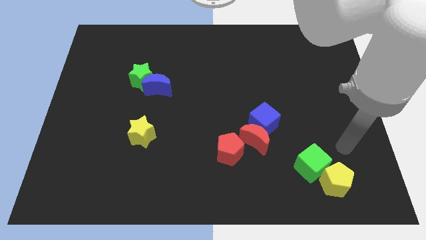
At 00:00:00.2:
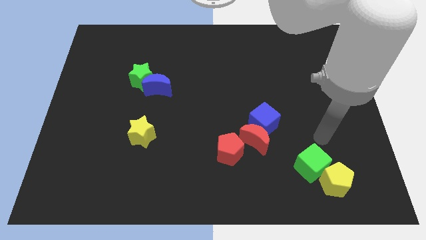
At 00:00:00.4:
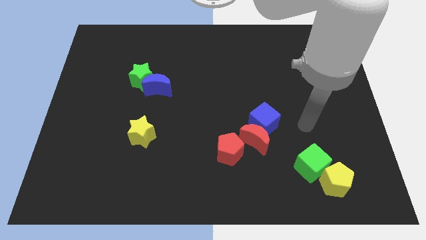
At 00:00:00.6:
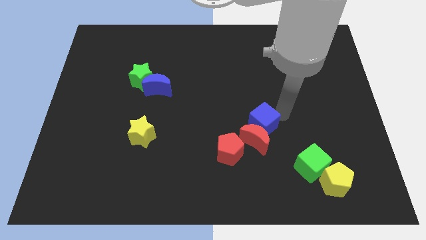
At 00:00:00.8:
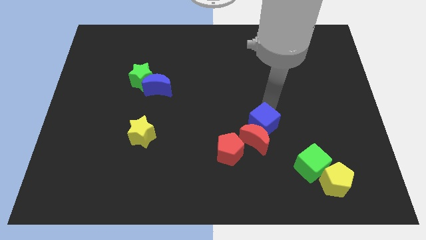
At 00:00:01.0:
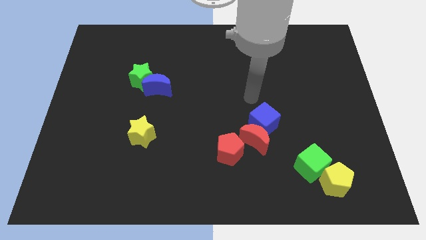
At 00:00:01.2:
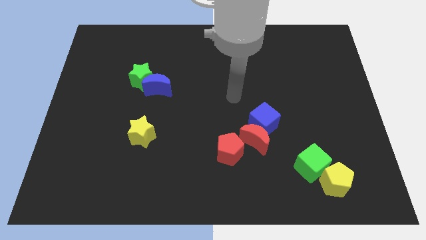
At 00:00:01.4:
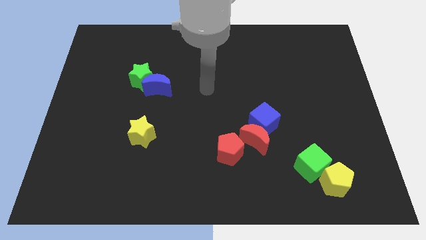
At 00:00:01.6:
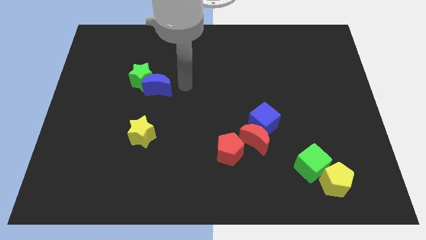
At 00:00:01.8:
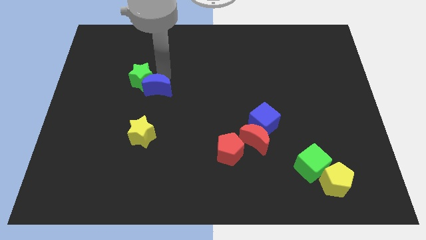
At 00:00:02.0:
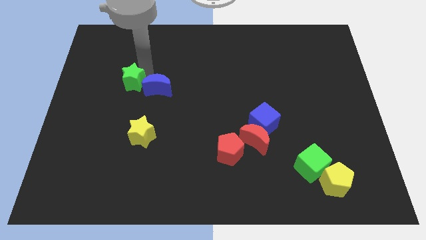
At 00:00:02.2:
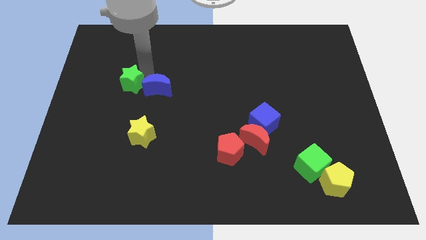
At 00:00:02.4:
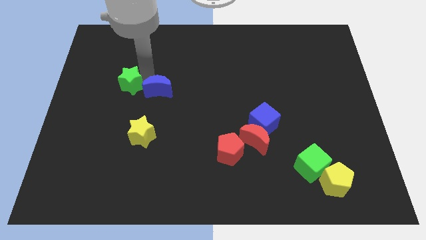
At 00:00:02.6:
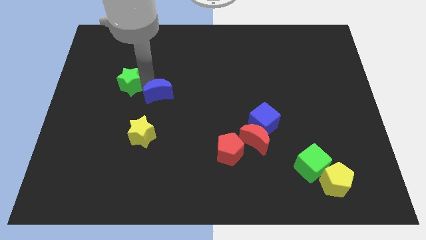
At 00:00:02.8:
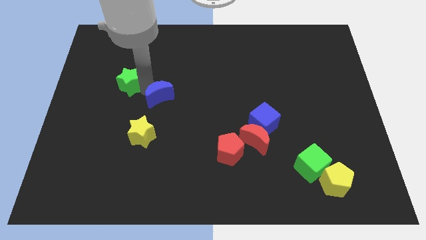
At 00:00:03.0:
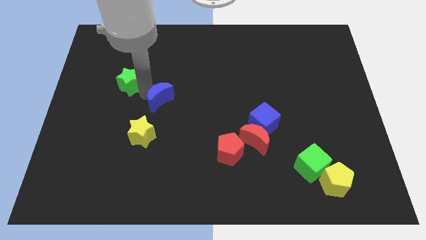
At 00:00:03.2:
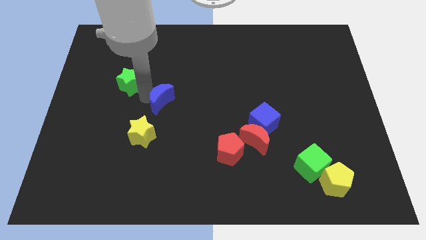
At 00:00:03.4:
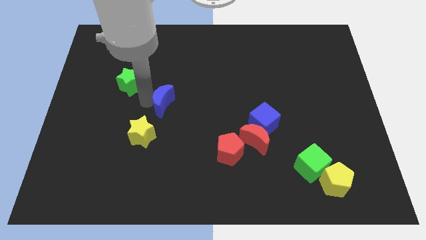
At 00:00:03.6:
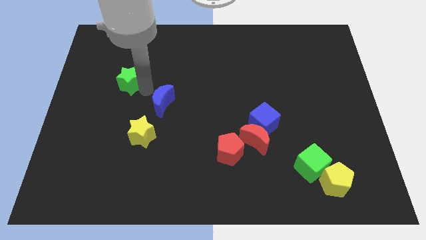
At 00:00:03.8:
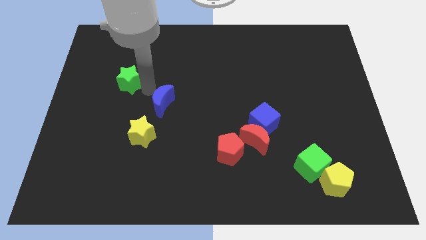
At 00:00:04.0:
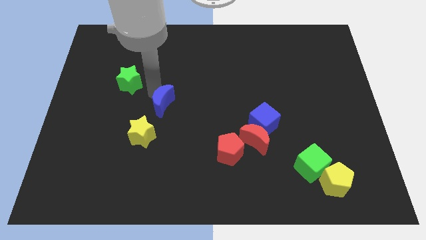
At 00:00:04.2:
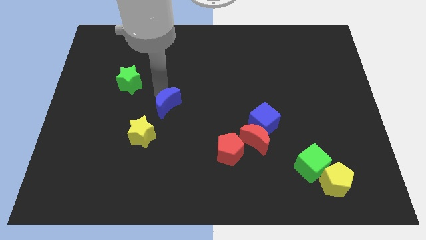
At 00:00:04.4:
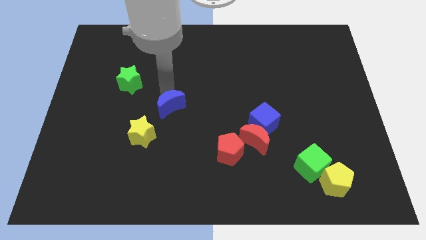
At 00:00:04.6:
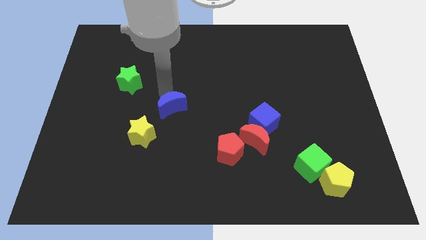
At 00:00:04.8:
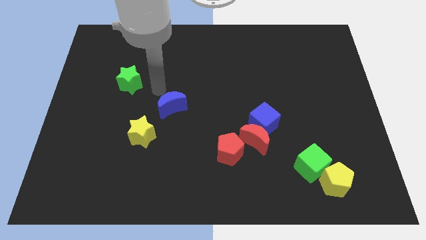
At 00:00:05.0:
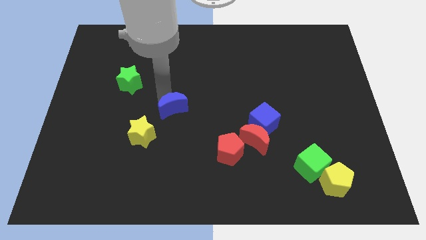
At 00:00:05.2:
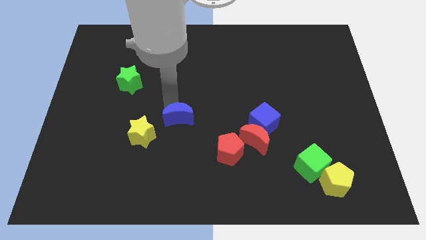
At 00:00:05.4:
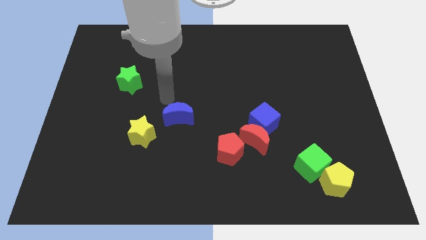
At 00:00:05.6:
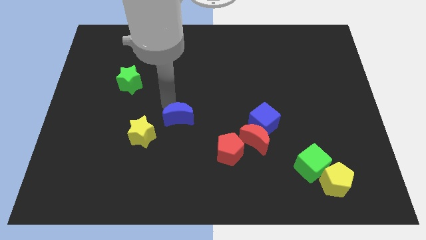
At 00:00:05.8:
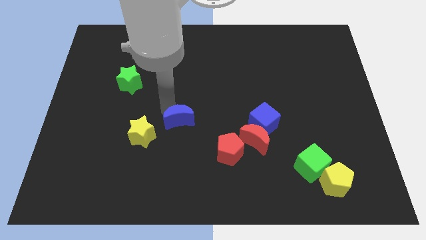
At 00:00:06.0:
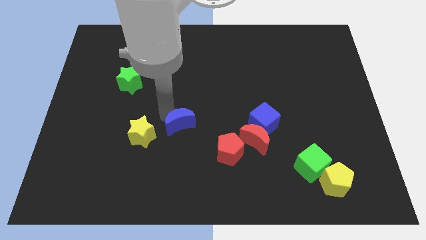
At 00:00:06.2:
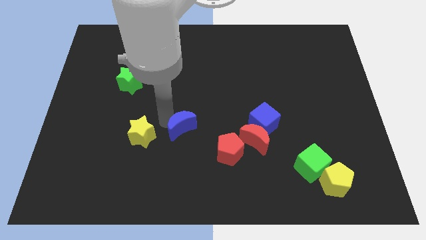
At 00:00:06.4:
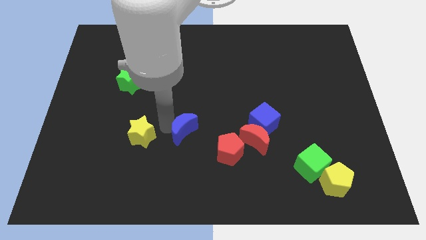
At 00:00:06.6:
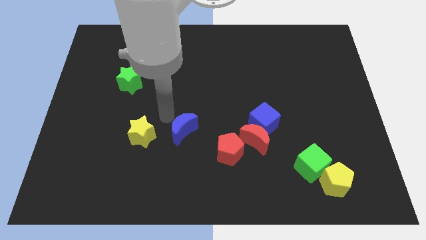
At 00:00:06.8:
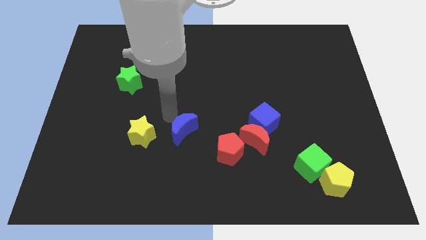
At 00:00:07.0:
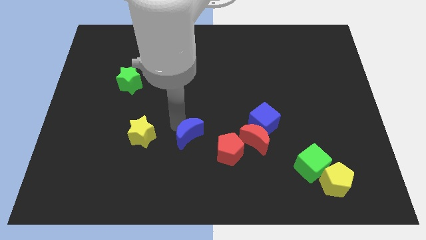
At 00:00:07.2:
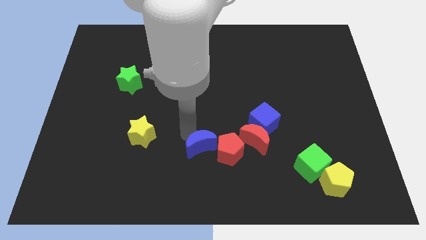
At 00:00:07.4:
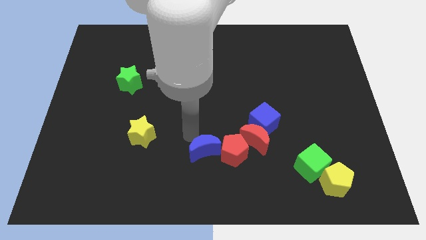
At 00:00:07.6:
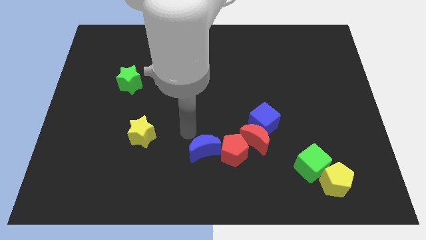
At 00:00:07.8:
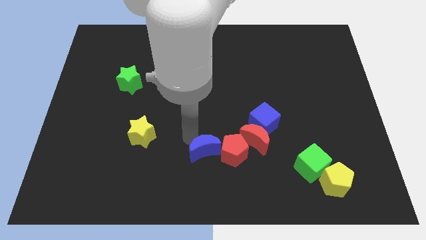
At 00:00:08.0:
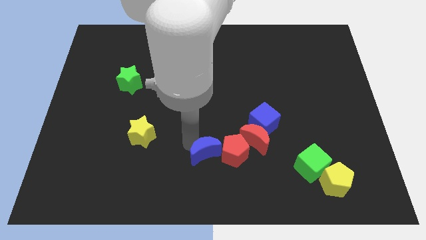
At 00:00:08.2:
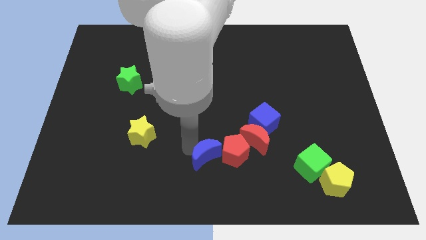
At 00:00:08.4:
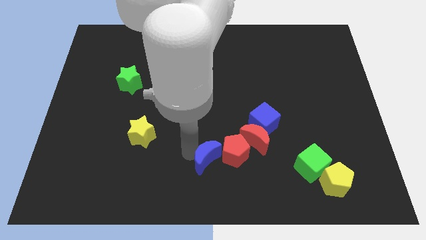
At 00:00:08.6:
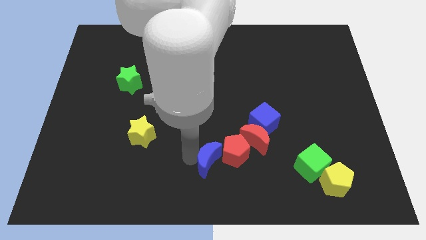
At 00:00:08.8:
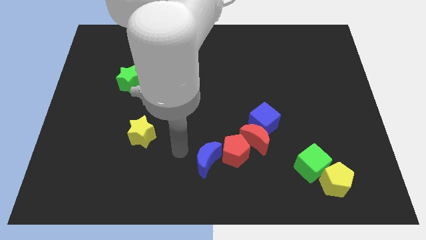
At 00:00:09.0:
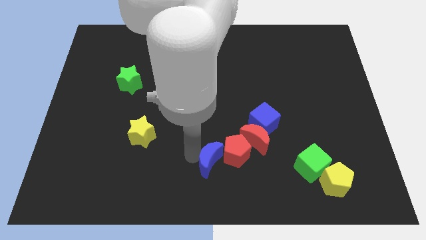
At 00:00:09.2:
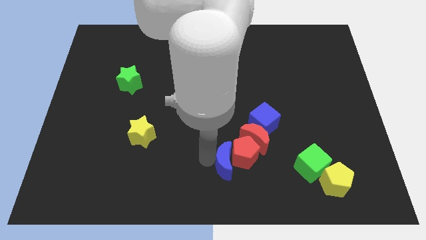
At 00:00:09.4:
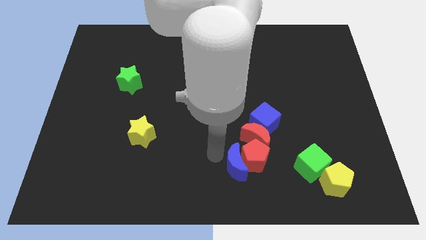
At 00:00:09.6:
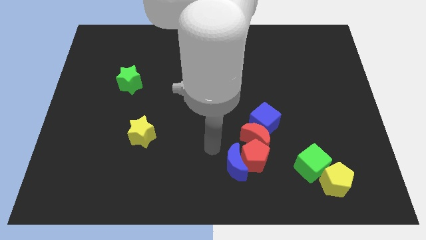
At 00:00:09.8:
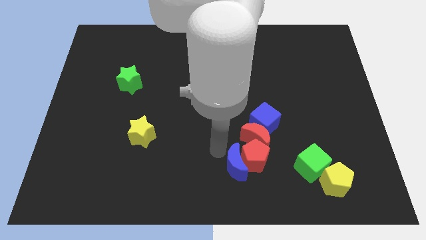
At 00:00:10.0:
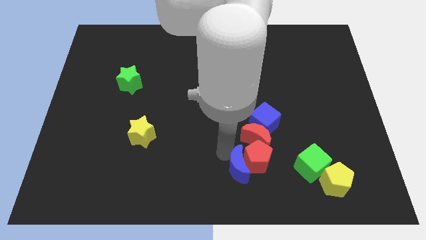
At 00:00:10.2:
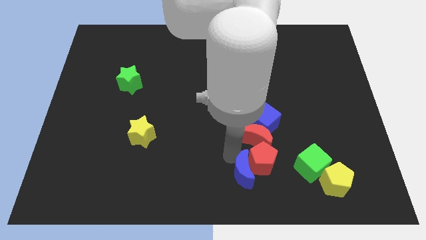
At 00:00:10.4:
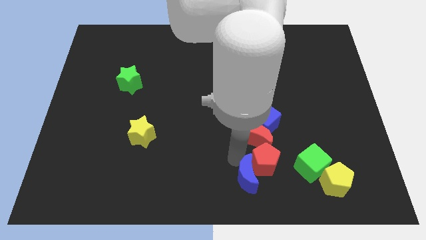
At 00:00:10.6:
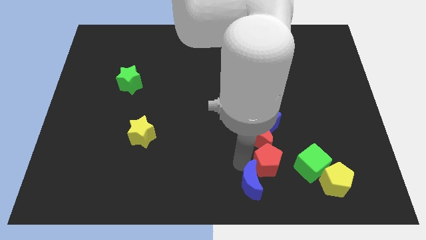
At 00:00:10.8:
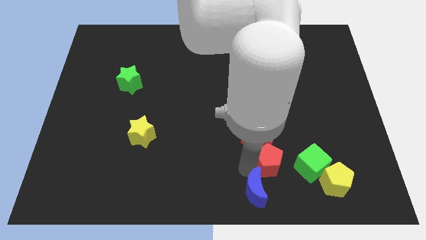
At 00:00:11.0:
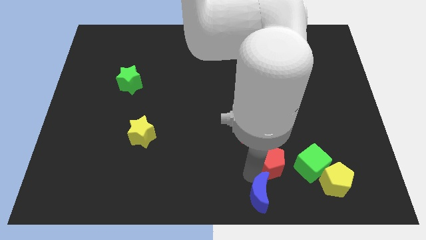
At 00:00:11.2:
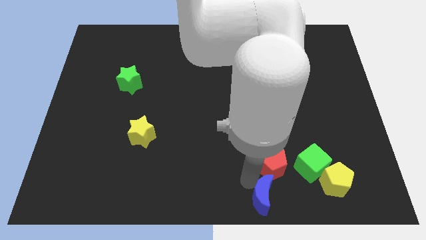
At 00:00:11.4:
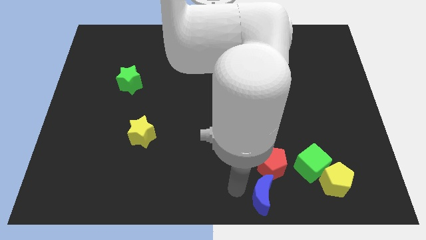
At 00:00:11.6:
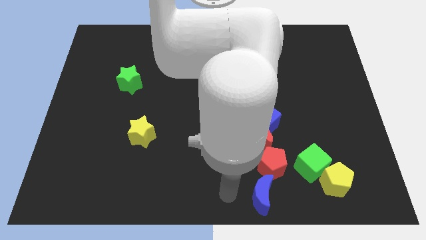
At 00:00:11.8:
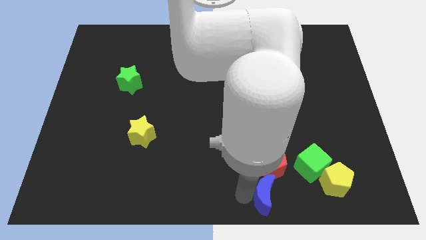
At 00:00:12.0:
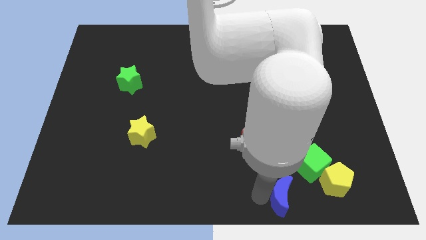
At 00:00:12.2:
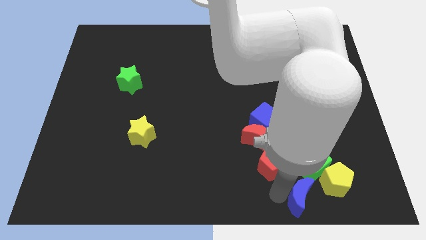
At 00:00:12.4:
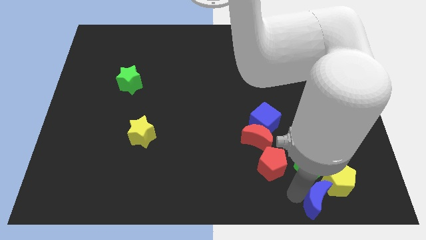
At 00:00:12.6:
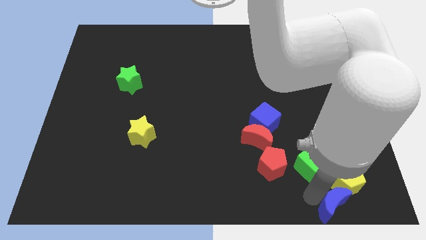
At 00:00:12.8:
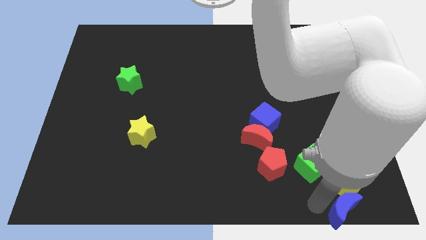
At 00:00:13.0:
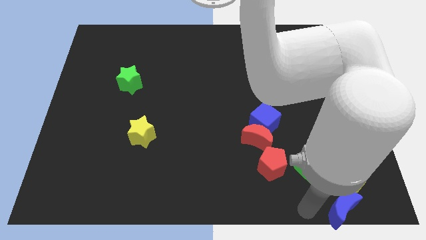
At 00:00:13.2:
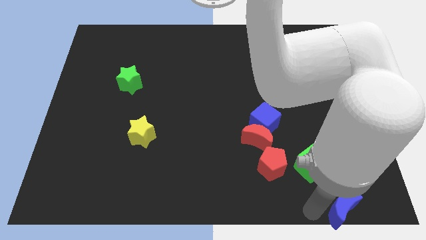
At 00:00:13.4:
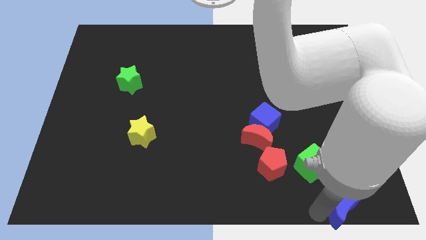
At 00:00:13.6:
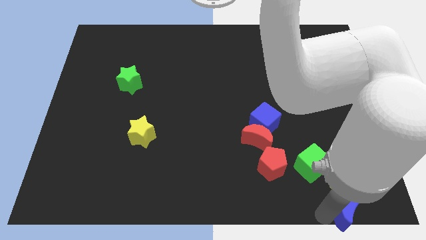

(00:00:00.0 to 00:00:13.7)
put the blue moon to the bottom right corner
